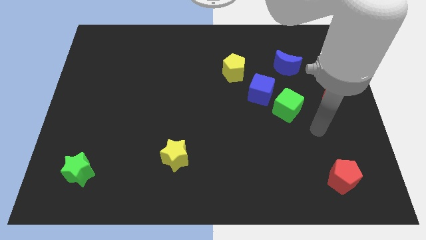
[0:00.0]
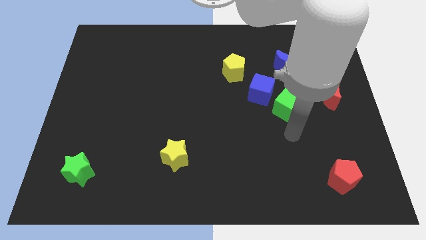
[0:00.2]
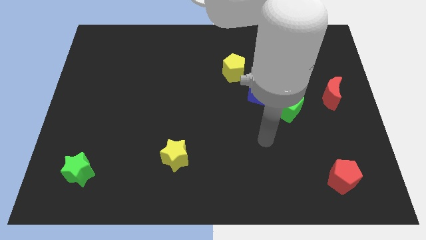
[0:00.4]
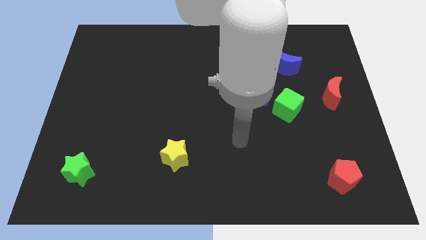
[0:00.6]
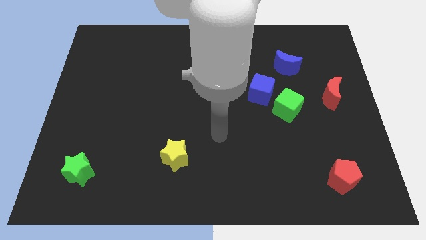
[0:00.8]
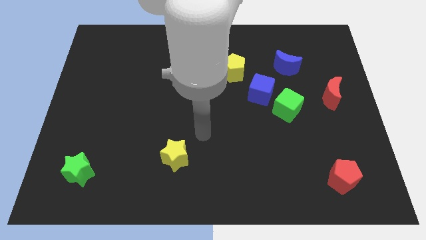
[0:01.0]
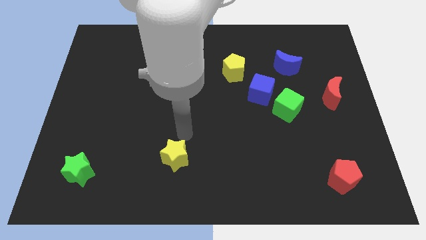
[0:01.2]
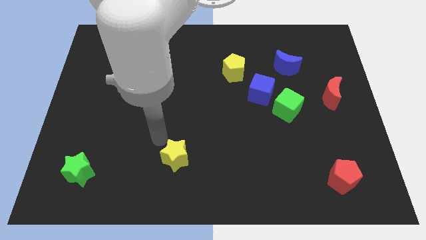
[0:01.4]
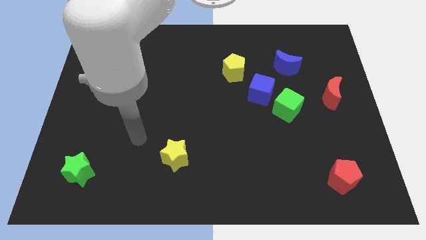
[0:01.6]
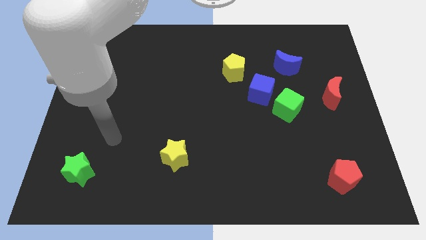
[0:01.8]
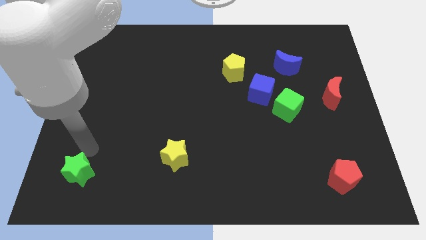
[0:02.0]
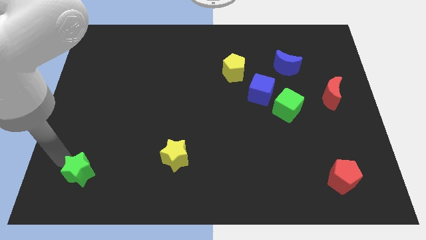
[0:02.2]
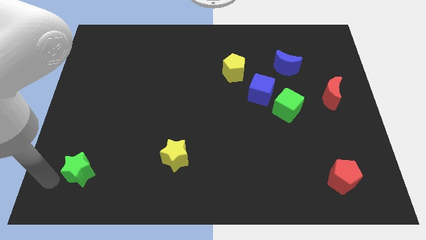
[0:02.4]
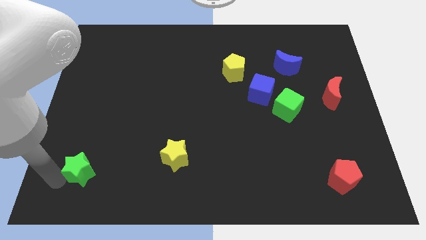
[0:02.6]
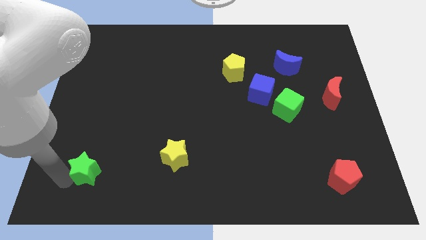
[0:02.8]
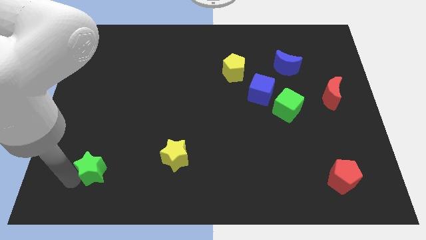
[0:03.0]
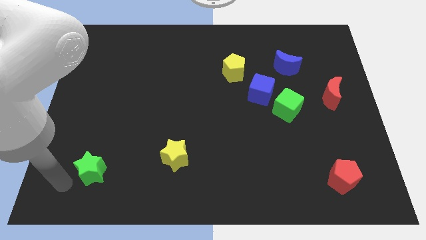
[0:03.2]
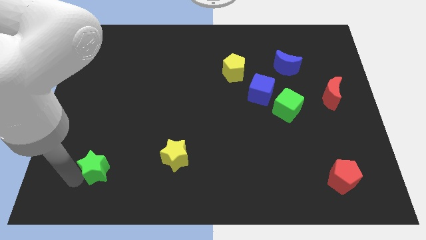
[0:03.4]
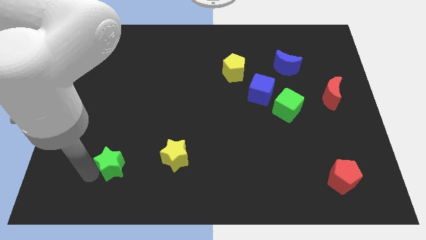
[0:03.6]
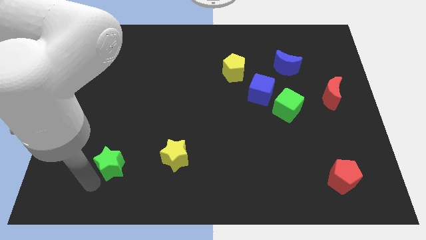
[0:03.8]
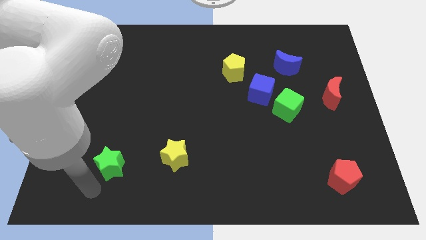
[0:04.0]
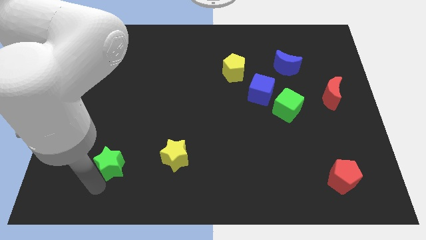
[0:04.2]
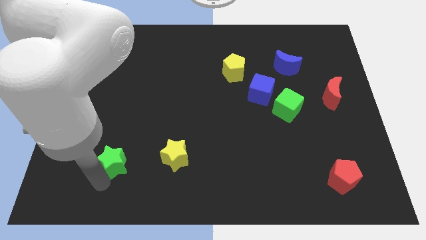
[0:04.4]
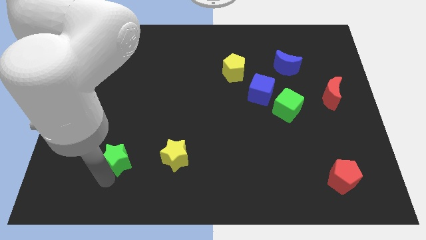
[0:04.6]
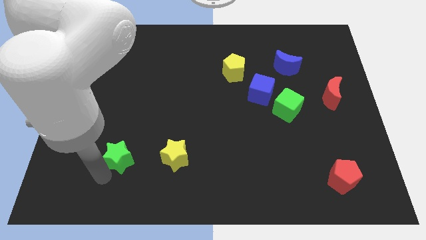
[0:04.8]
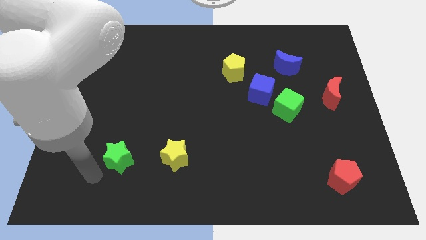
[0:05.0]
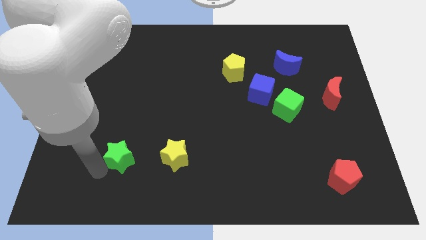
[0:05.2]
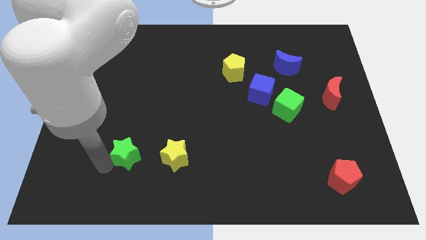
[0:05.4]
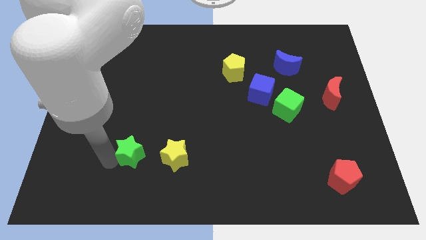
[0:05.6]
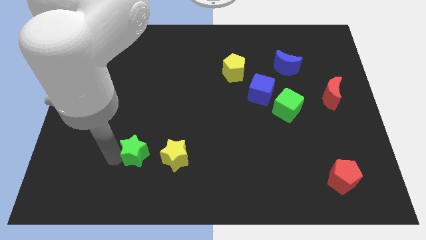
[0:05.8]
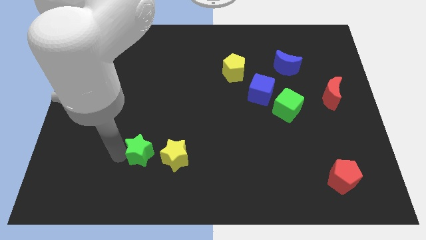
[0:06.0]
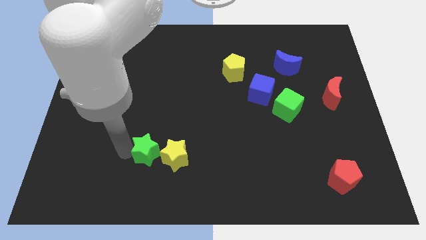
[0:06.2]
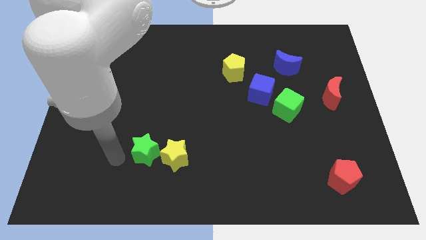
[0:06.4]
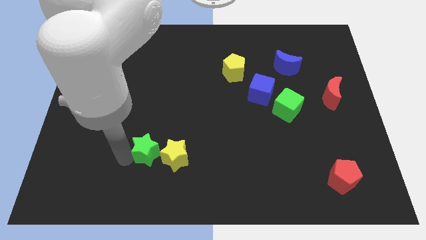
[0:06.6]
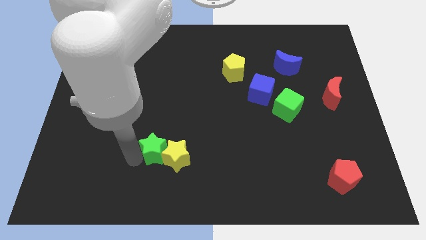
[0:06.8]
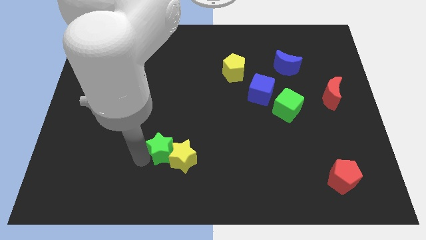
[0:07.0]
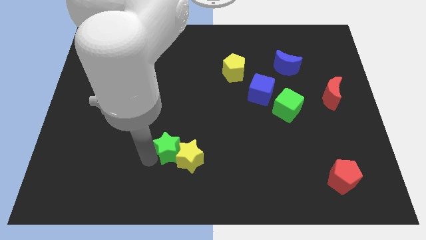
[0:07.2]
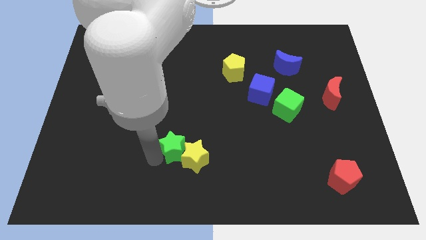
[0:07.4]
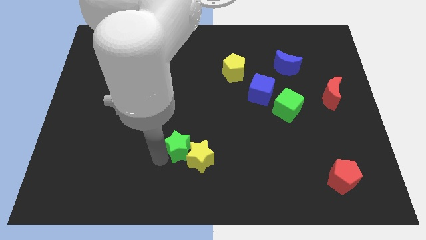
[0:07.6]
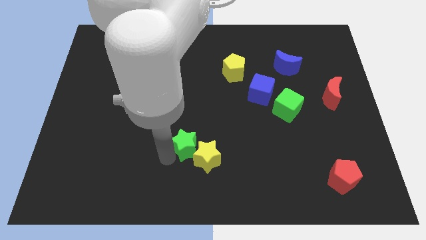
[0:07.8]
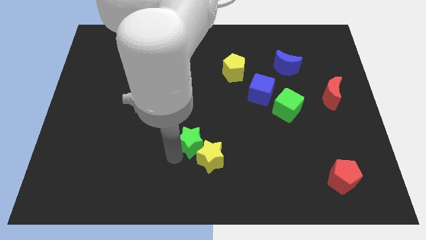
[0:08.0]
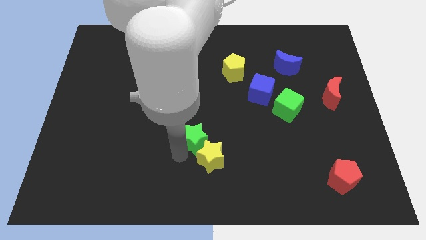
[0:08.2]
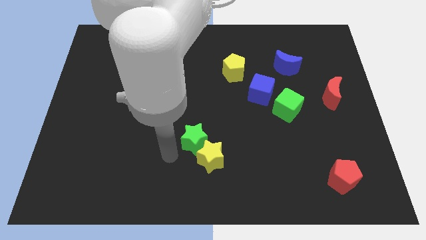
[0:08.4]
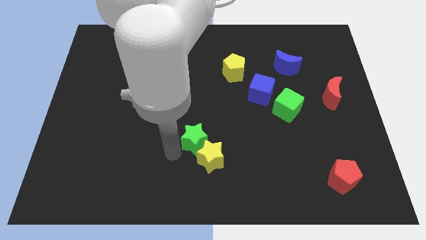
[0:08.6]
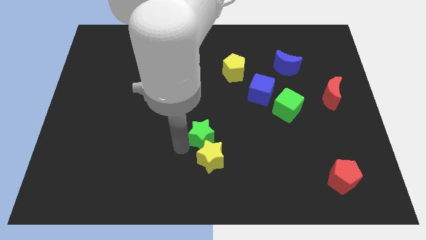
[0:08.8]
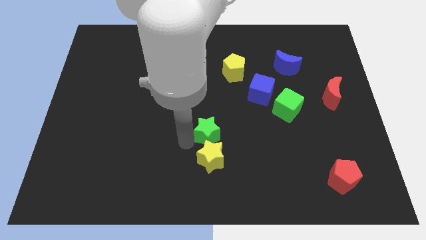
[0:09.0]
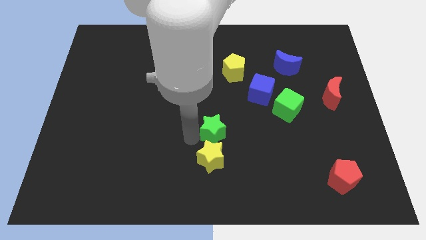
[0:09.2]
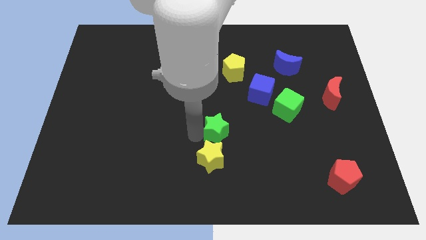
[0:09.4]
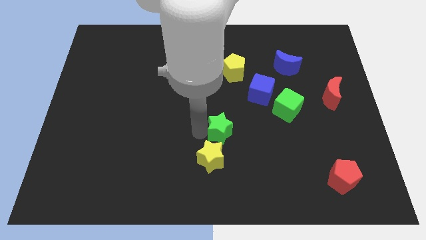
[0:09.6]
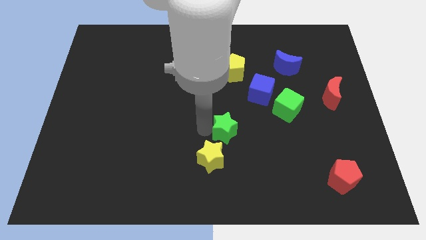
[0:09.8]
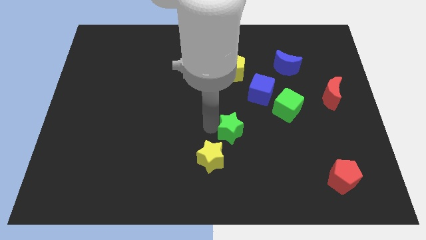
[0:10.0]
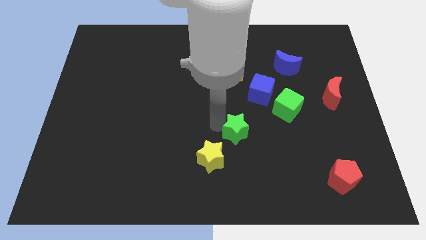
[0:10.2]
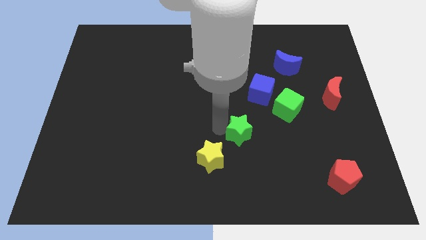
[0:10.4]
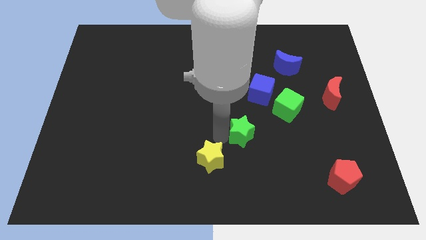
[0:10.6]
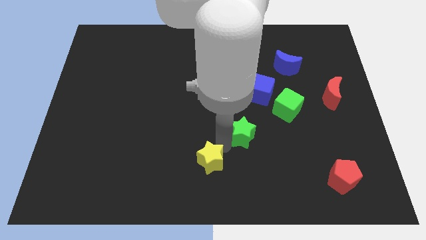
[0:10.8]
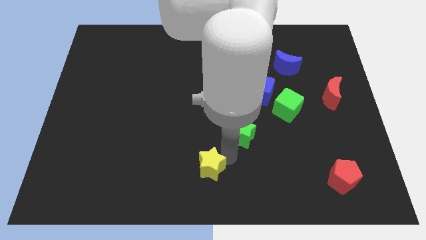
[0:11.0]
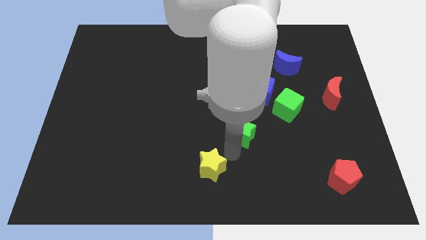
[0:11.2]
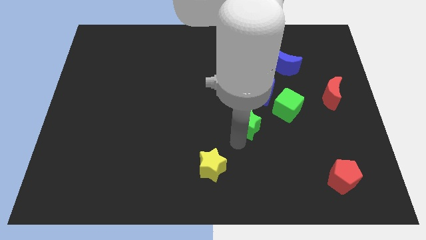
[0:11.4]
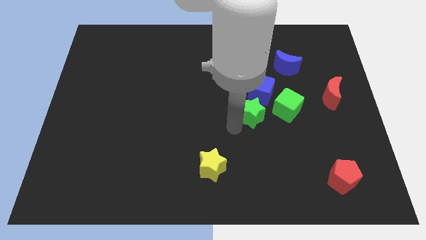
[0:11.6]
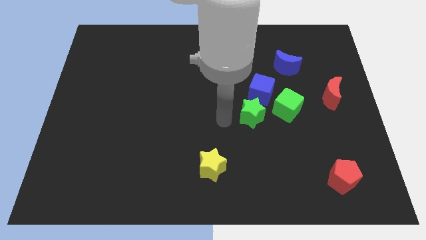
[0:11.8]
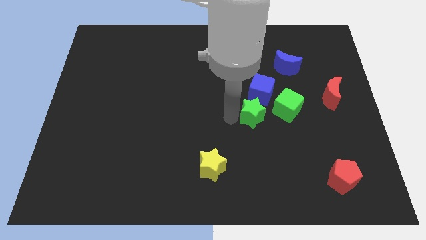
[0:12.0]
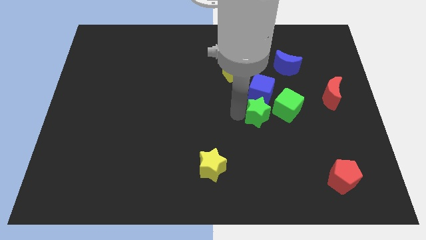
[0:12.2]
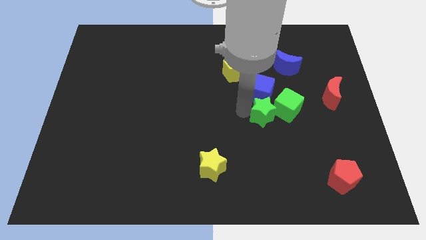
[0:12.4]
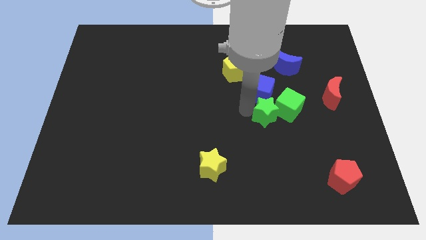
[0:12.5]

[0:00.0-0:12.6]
move the green star close to the green cube

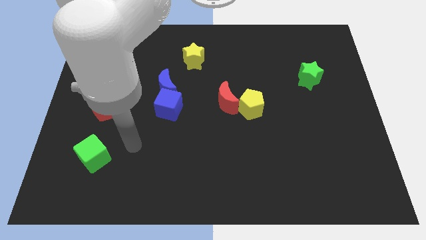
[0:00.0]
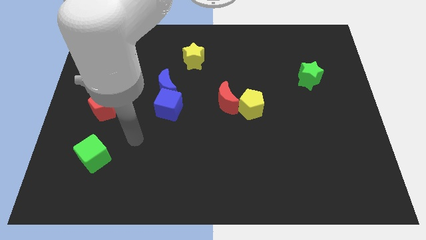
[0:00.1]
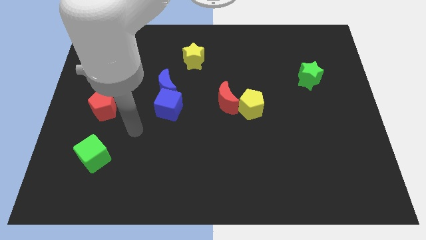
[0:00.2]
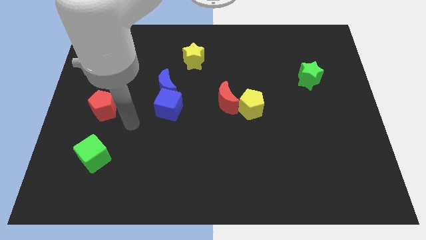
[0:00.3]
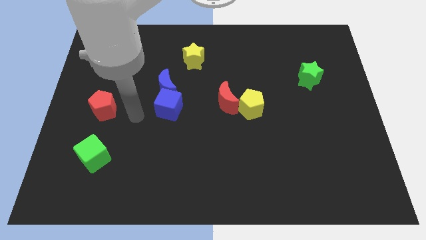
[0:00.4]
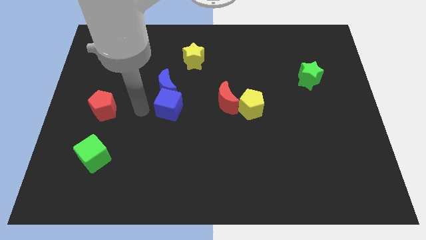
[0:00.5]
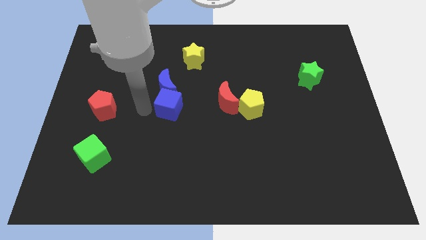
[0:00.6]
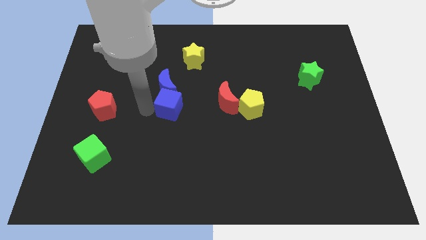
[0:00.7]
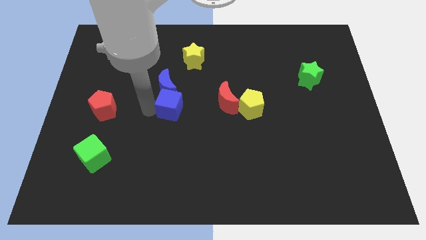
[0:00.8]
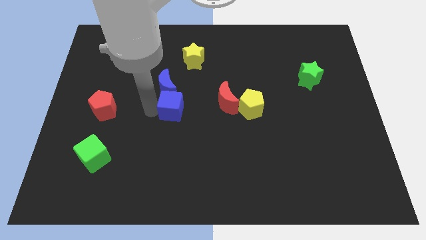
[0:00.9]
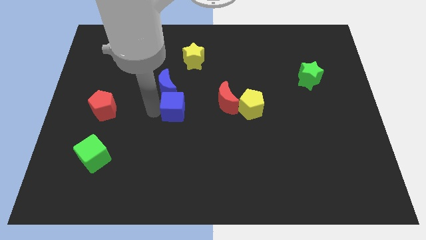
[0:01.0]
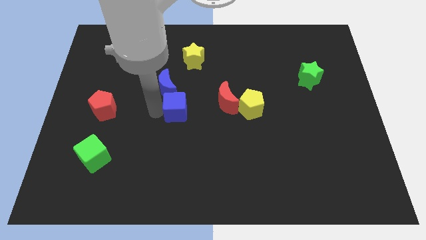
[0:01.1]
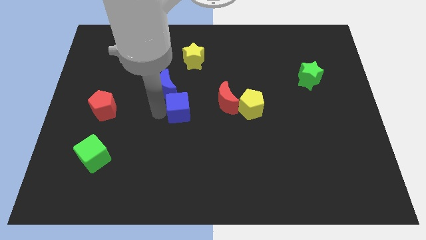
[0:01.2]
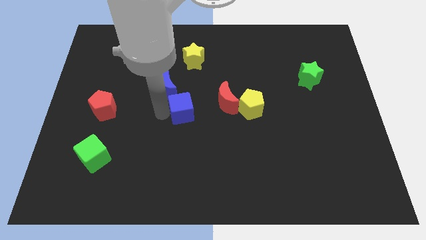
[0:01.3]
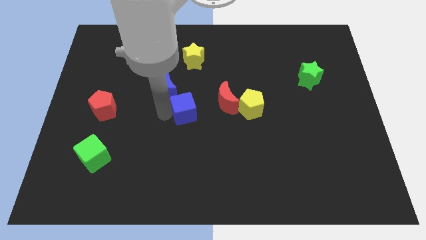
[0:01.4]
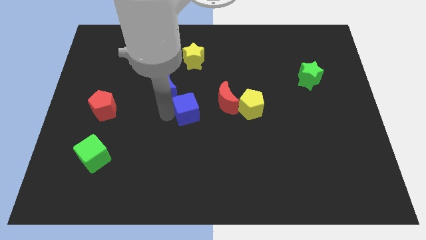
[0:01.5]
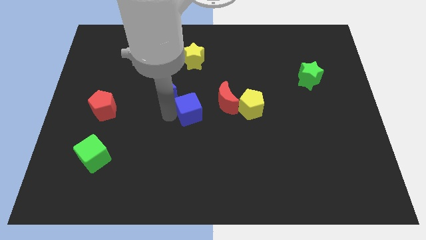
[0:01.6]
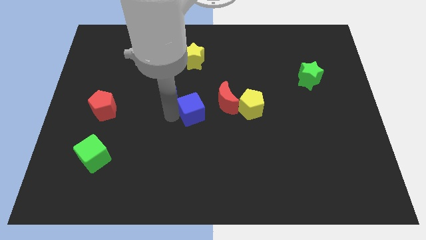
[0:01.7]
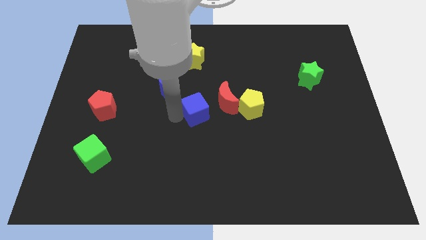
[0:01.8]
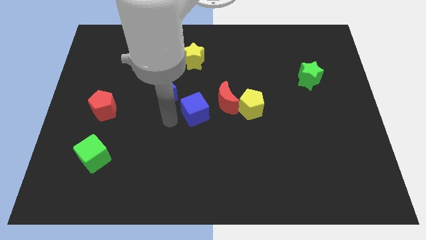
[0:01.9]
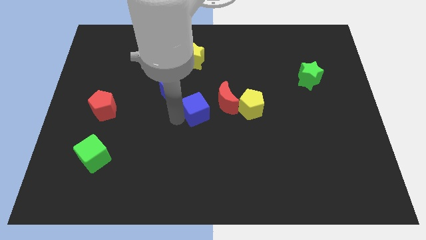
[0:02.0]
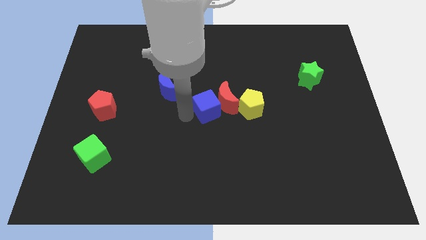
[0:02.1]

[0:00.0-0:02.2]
put the blue cube close to the red moon
